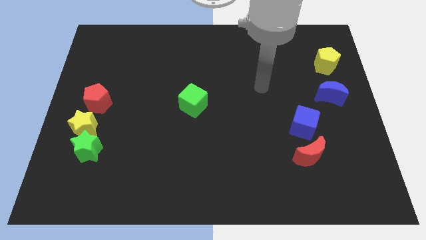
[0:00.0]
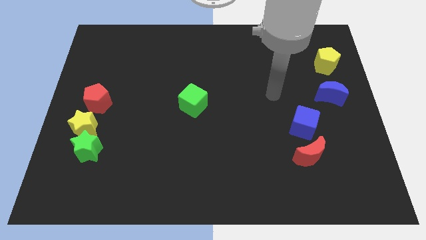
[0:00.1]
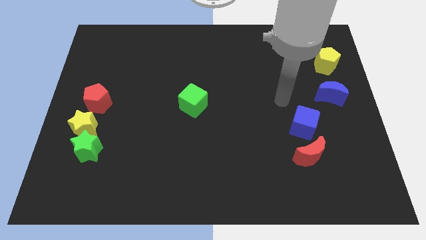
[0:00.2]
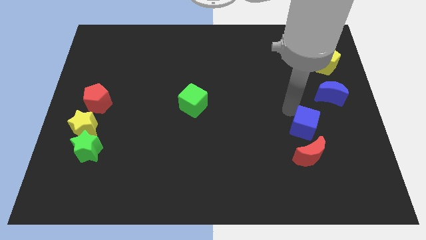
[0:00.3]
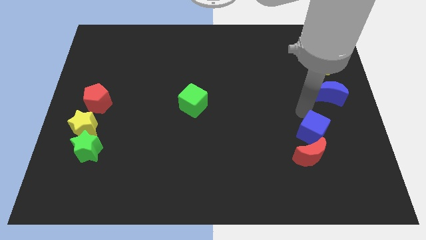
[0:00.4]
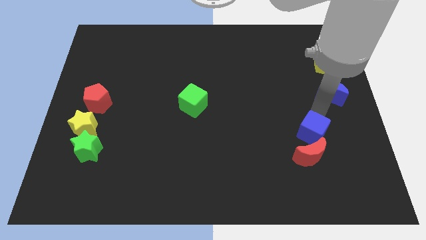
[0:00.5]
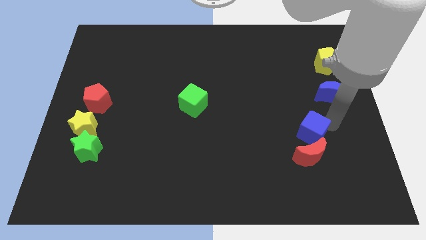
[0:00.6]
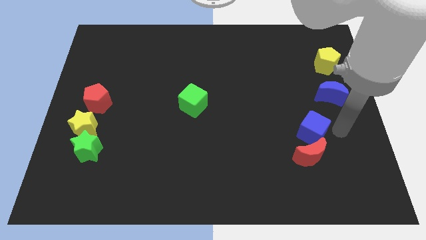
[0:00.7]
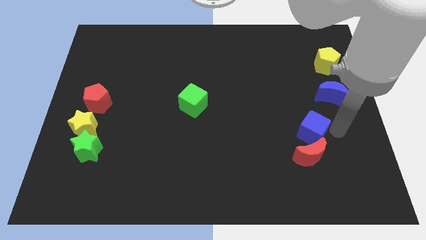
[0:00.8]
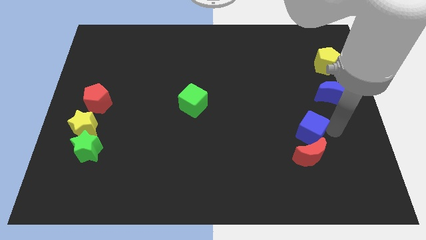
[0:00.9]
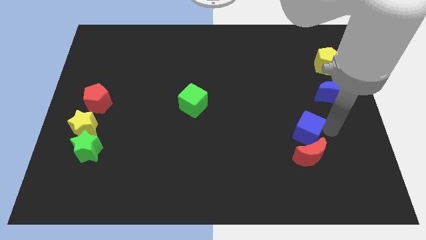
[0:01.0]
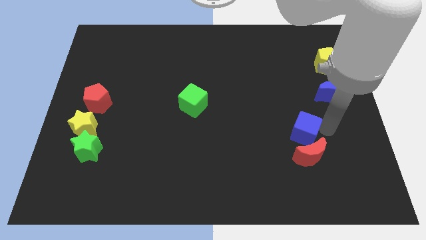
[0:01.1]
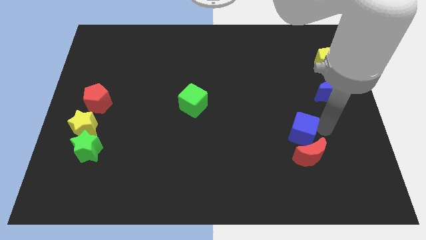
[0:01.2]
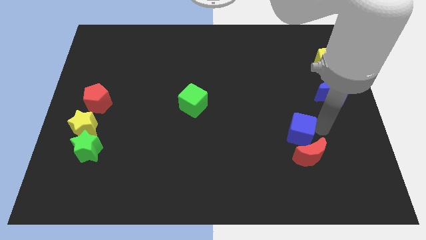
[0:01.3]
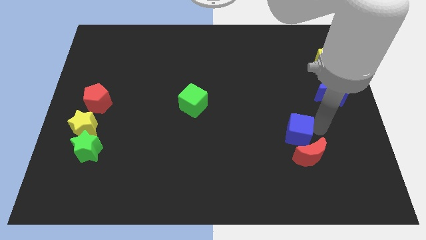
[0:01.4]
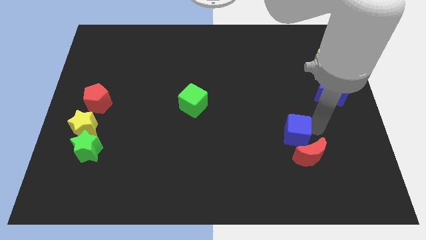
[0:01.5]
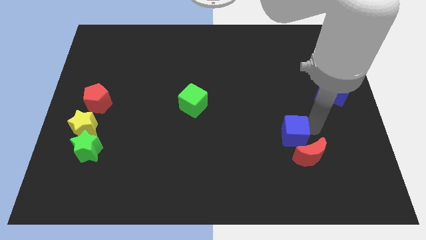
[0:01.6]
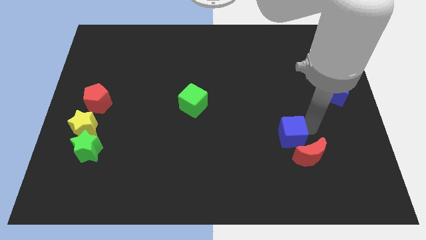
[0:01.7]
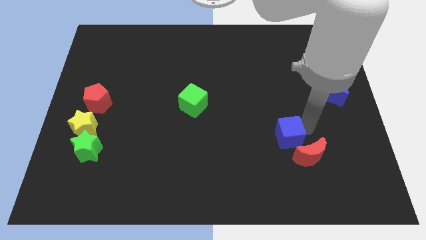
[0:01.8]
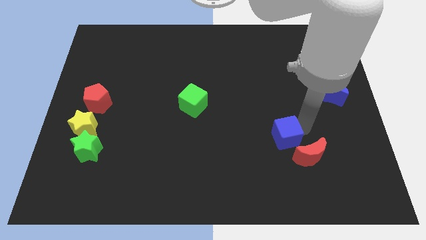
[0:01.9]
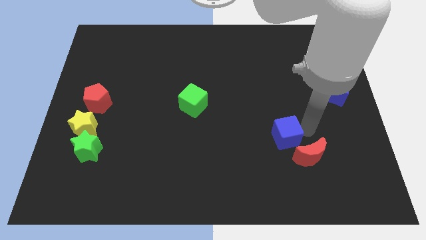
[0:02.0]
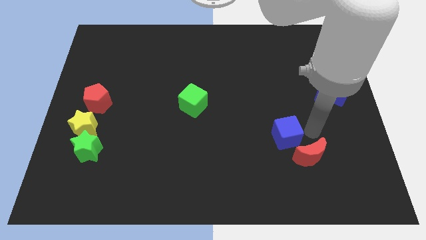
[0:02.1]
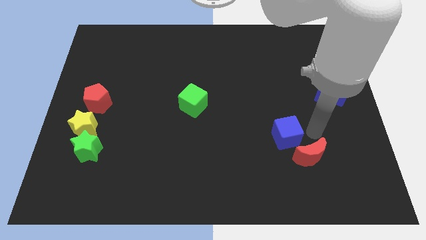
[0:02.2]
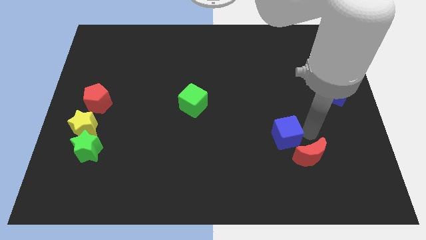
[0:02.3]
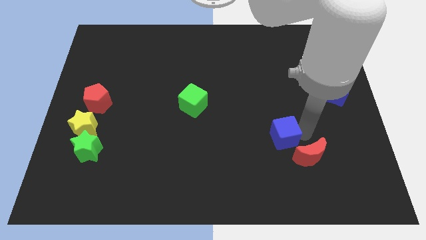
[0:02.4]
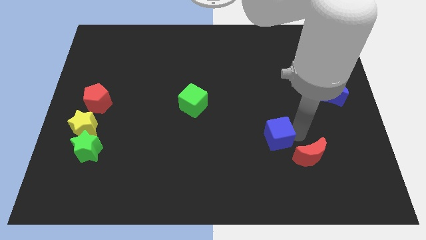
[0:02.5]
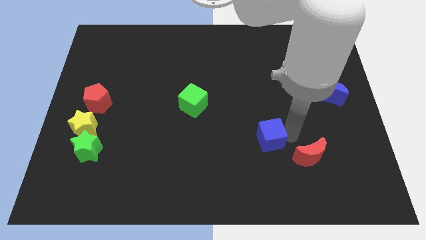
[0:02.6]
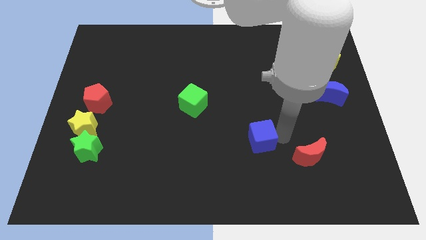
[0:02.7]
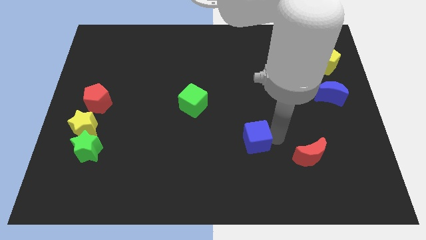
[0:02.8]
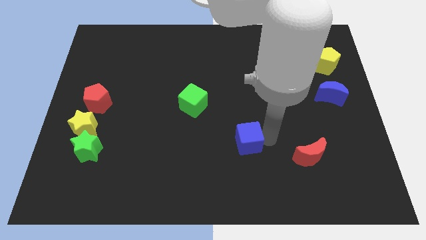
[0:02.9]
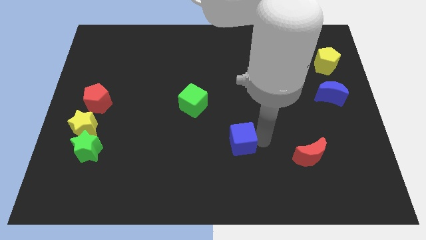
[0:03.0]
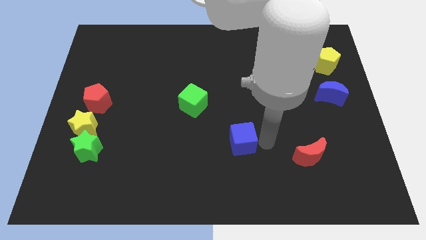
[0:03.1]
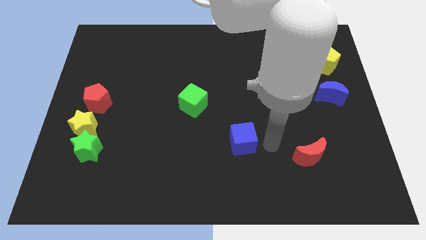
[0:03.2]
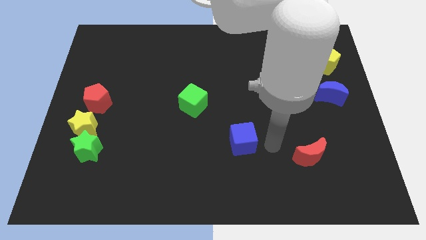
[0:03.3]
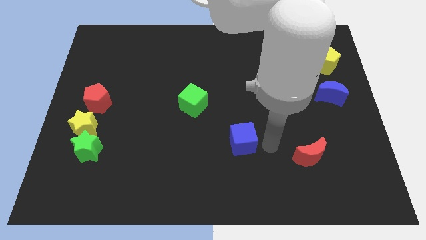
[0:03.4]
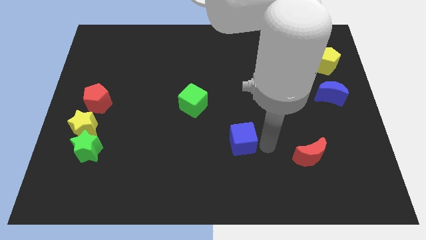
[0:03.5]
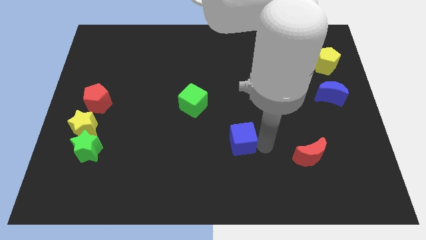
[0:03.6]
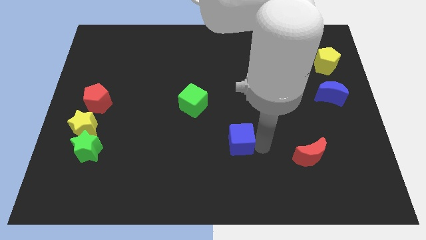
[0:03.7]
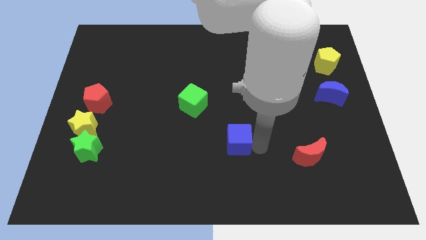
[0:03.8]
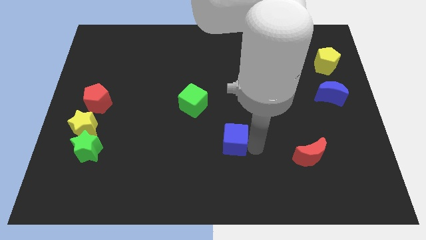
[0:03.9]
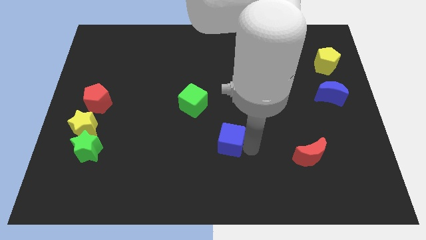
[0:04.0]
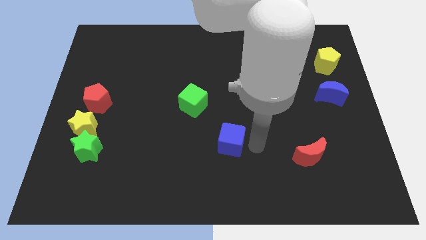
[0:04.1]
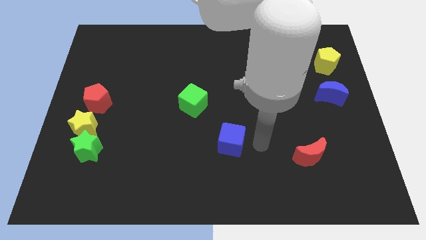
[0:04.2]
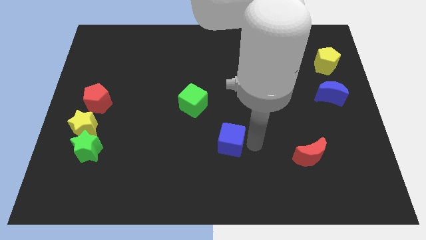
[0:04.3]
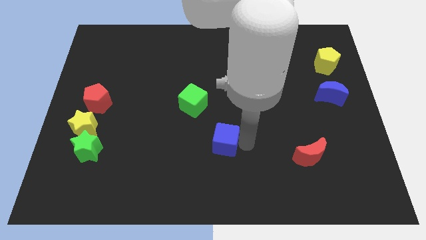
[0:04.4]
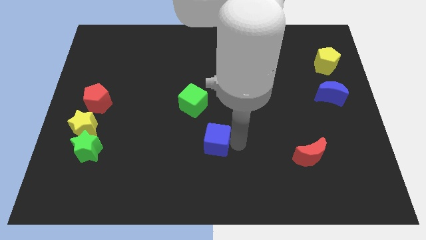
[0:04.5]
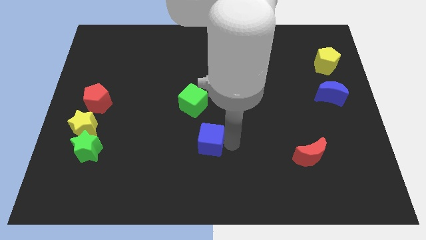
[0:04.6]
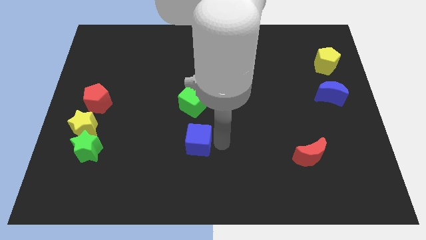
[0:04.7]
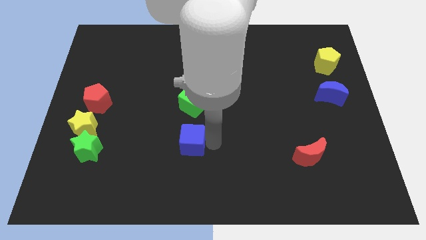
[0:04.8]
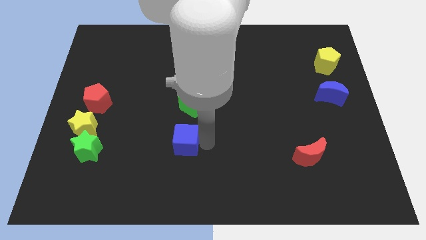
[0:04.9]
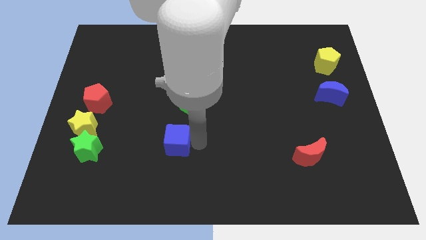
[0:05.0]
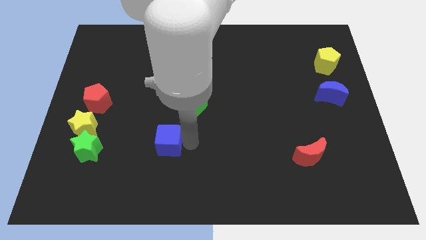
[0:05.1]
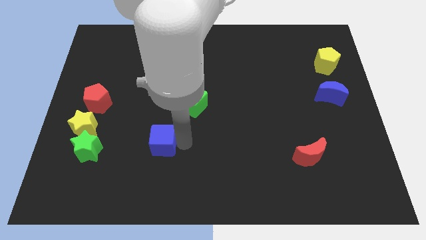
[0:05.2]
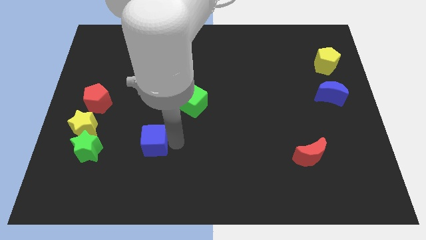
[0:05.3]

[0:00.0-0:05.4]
slide the blue cube to the right of the green star
